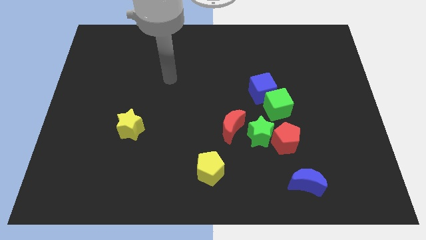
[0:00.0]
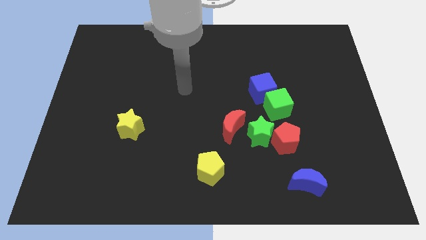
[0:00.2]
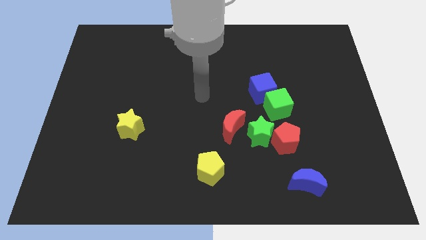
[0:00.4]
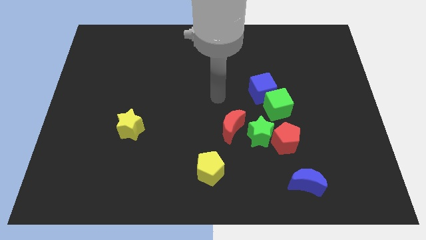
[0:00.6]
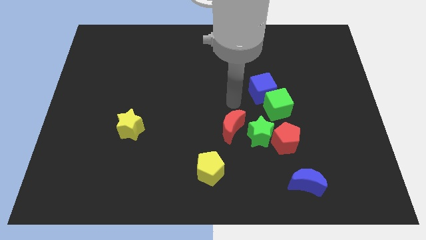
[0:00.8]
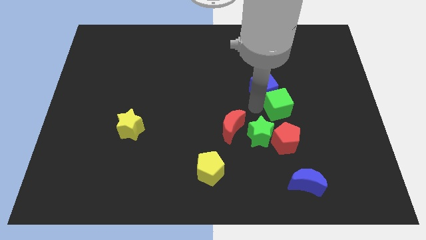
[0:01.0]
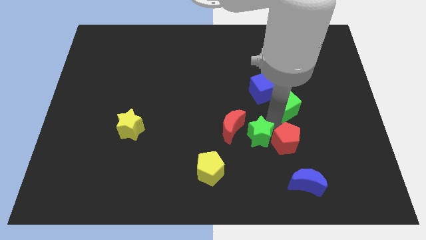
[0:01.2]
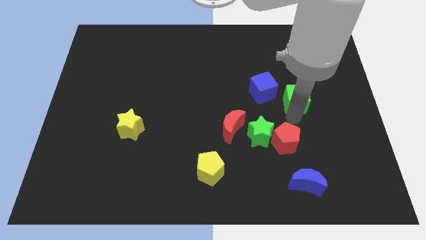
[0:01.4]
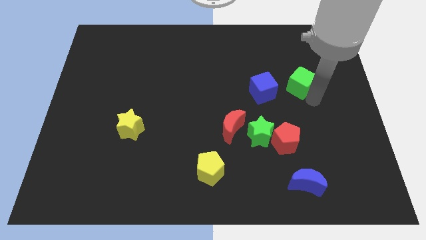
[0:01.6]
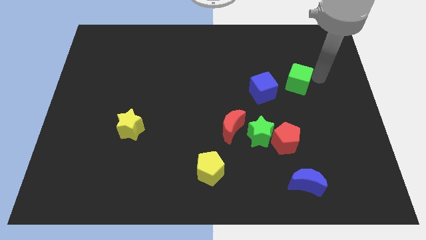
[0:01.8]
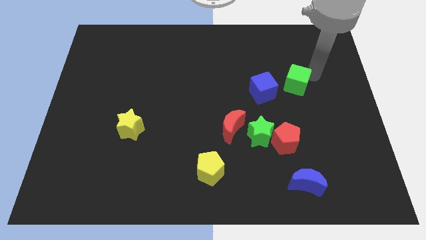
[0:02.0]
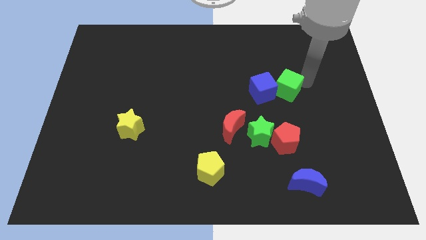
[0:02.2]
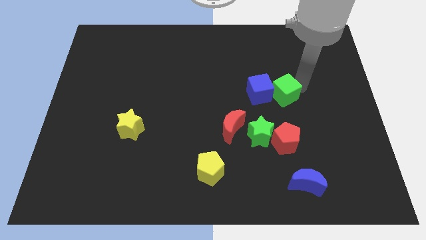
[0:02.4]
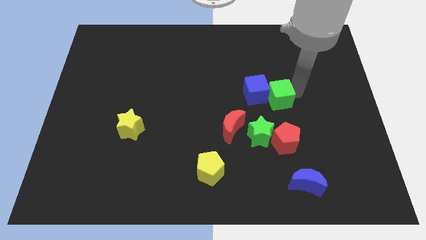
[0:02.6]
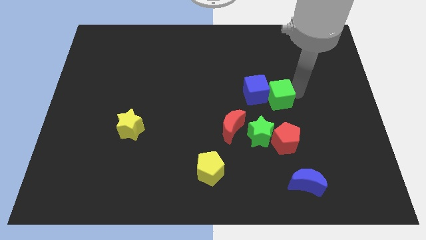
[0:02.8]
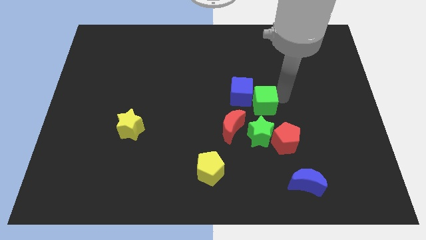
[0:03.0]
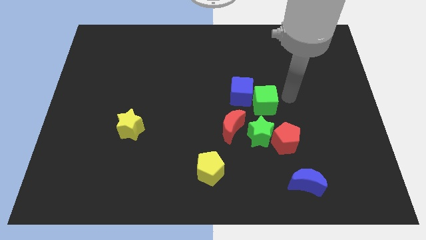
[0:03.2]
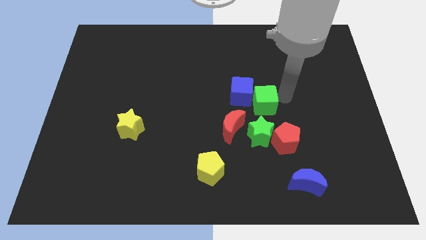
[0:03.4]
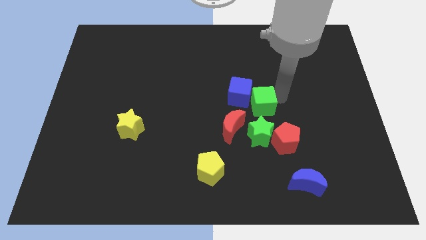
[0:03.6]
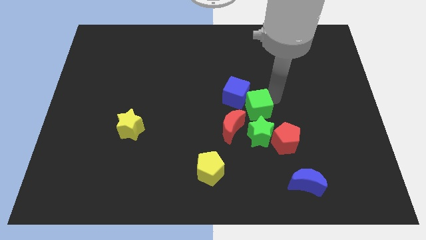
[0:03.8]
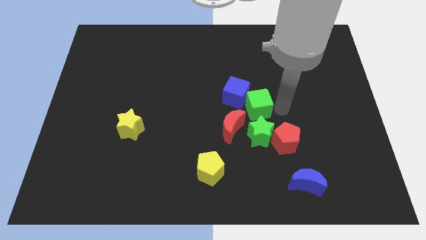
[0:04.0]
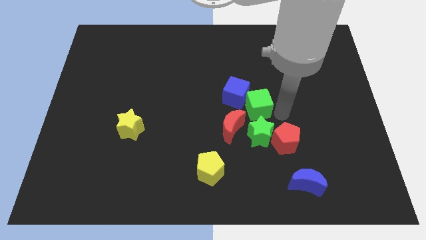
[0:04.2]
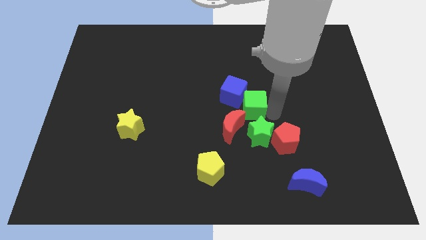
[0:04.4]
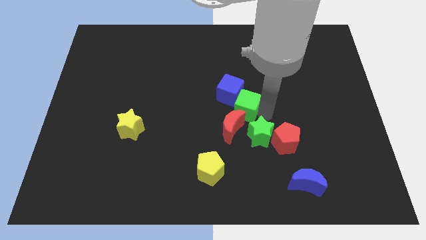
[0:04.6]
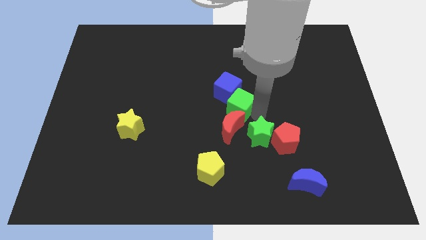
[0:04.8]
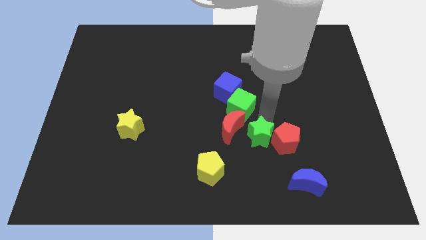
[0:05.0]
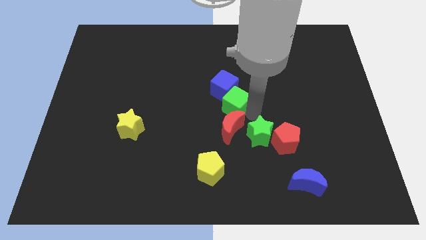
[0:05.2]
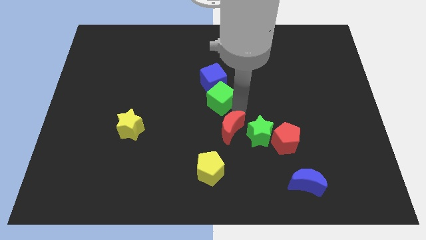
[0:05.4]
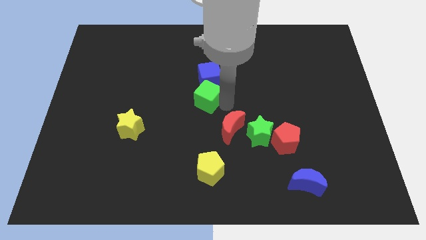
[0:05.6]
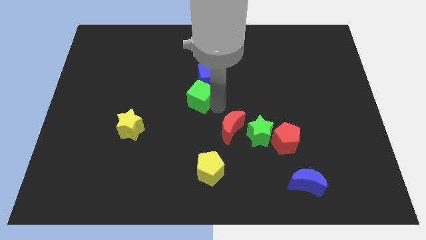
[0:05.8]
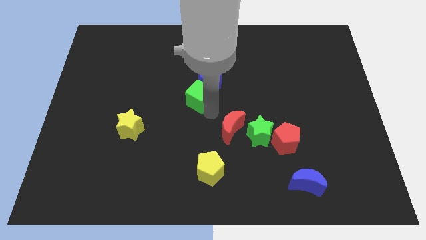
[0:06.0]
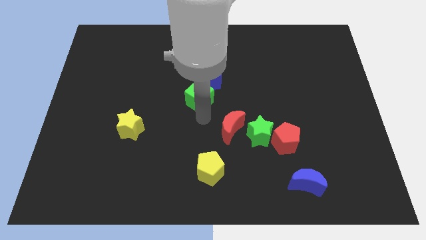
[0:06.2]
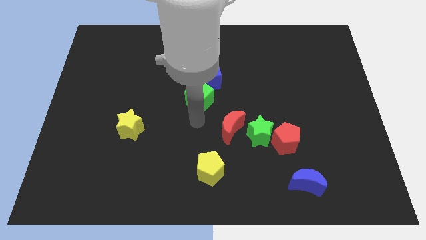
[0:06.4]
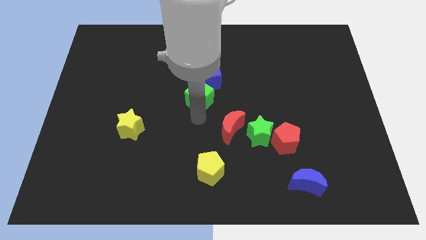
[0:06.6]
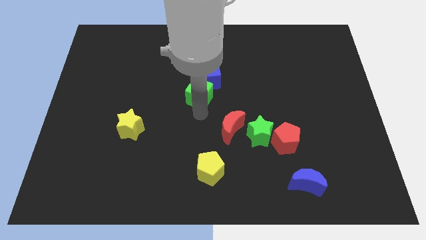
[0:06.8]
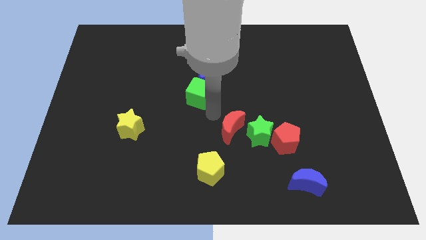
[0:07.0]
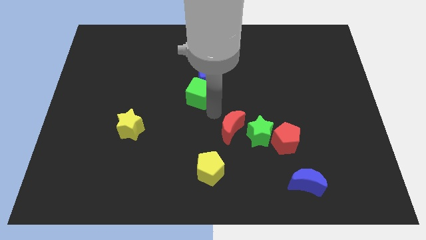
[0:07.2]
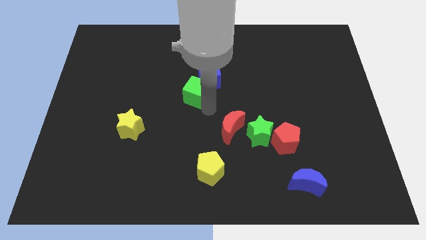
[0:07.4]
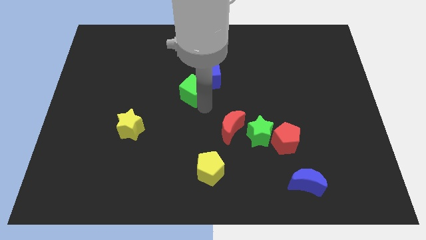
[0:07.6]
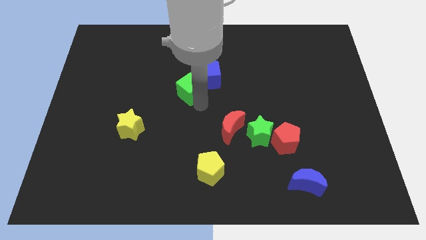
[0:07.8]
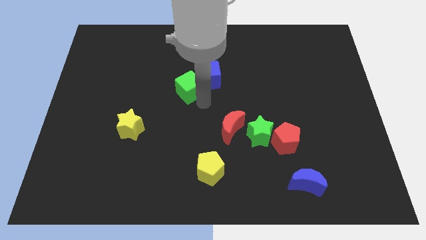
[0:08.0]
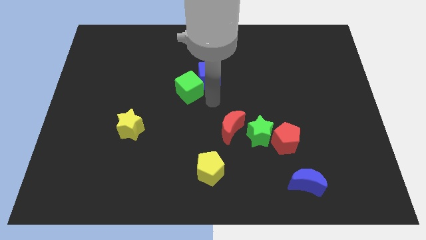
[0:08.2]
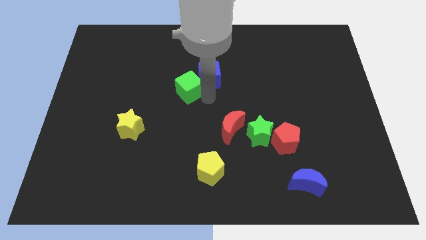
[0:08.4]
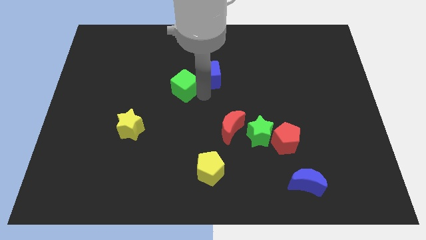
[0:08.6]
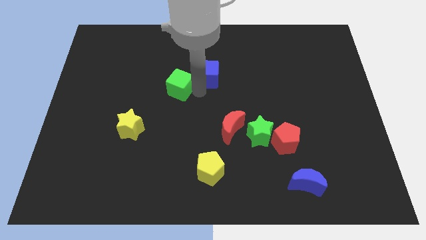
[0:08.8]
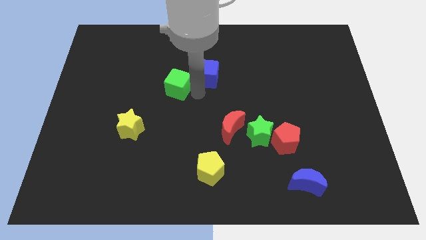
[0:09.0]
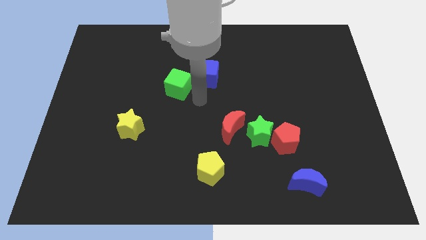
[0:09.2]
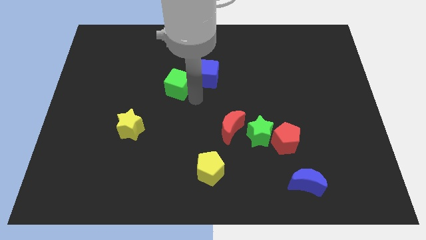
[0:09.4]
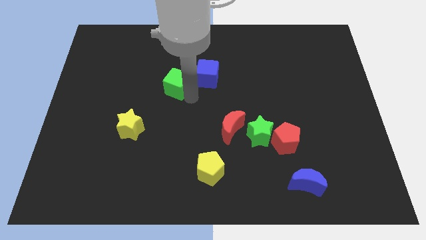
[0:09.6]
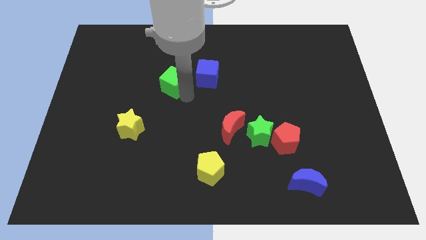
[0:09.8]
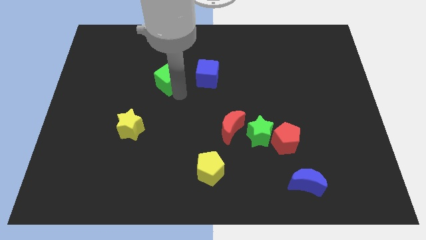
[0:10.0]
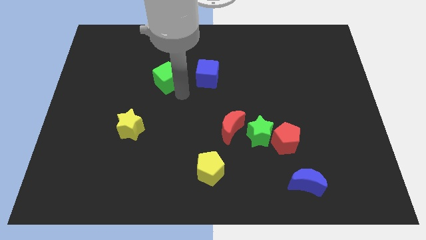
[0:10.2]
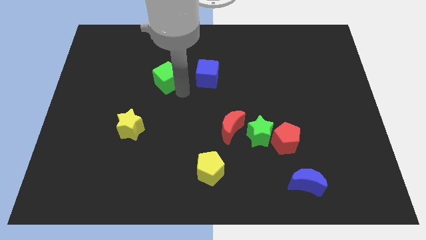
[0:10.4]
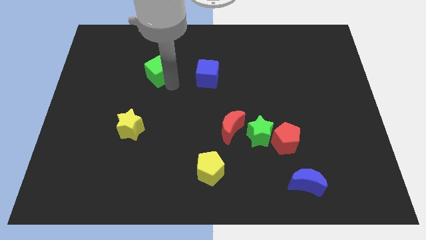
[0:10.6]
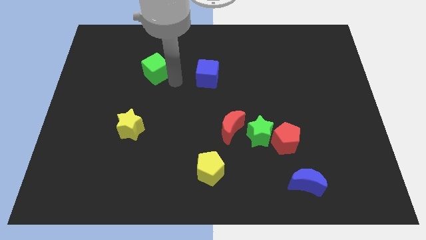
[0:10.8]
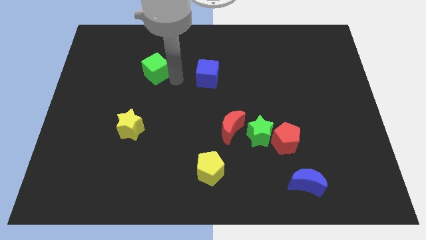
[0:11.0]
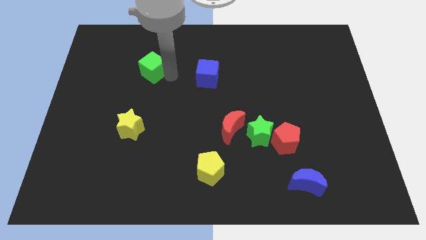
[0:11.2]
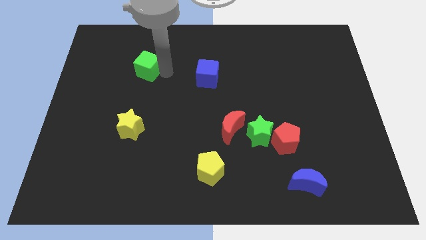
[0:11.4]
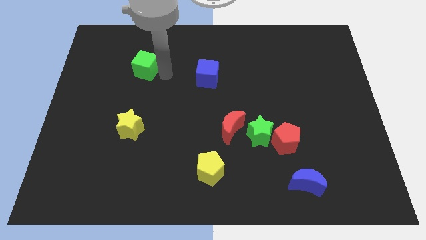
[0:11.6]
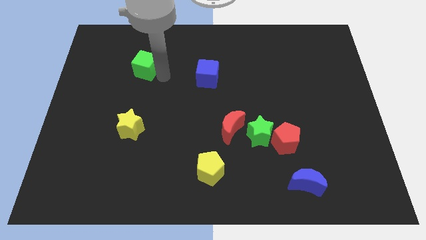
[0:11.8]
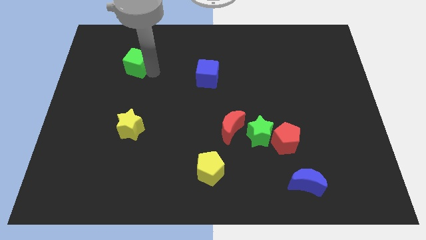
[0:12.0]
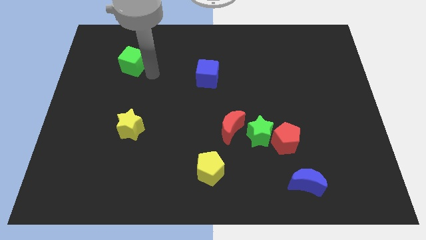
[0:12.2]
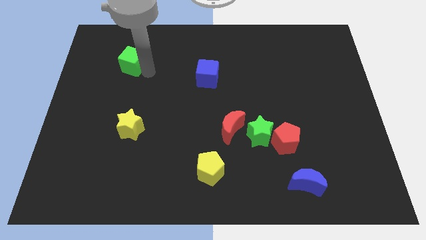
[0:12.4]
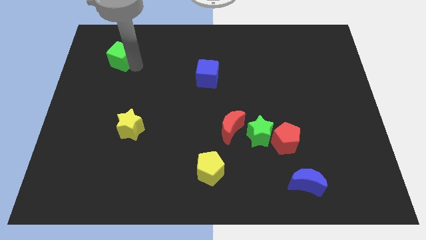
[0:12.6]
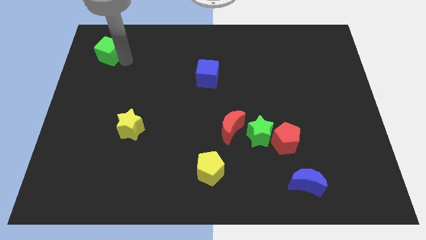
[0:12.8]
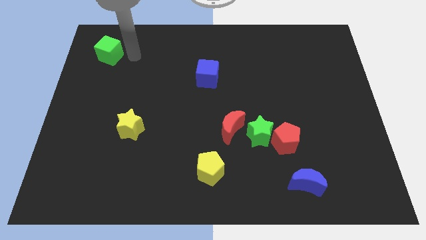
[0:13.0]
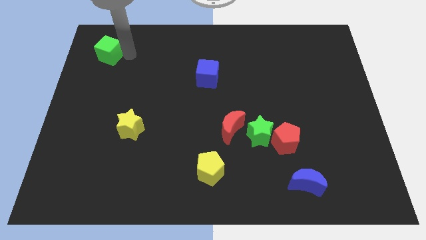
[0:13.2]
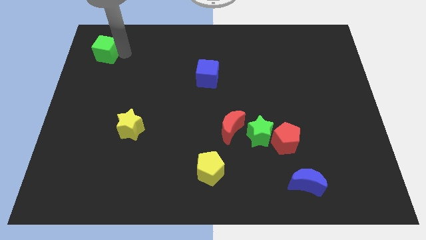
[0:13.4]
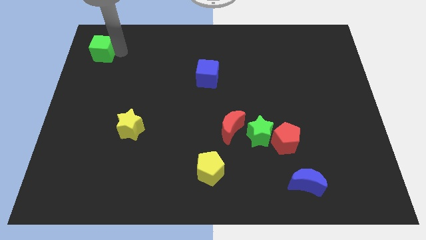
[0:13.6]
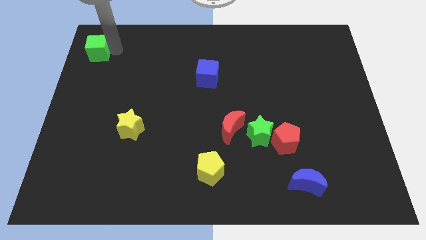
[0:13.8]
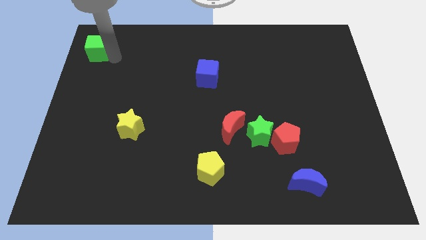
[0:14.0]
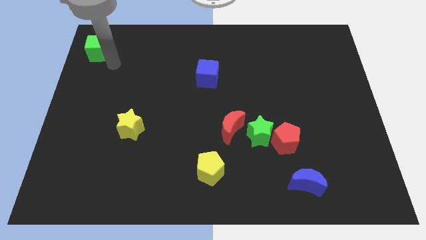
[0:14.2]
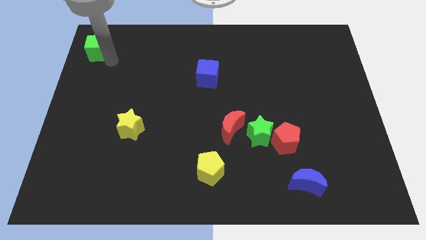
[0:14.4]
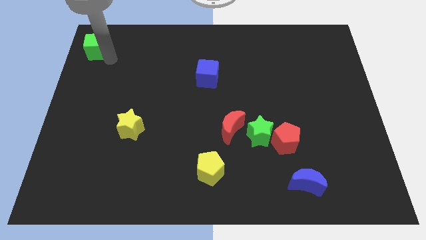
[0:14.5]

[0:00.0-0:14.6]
move the green cube to the top left
